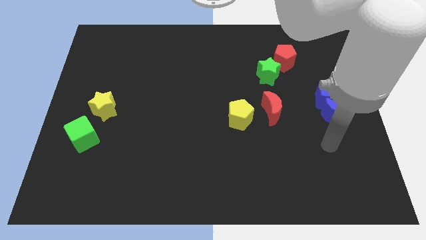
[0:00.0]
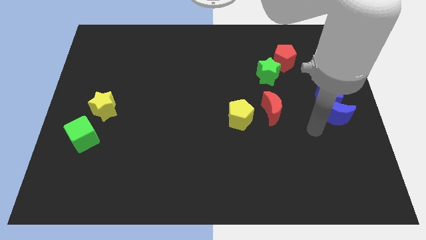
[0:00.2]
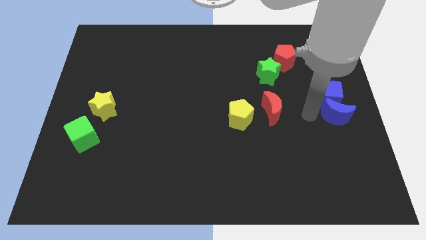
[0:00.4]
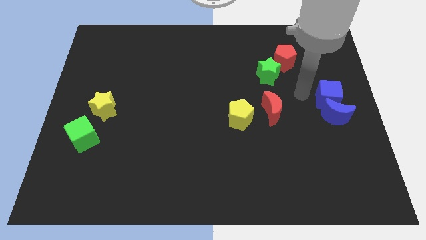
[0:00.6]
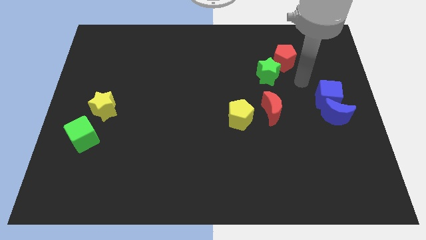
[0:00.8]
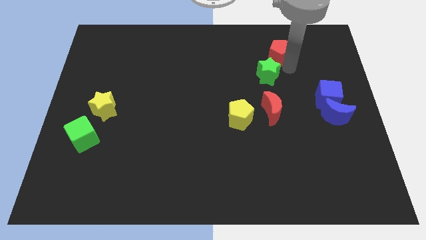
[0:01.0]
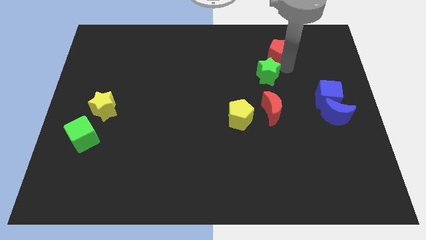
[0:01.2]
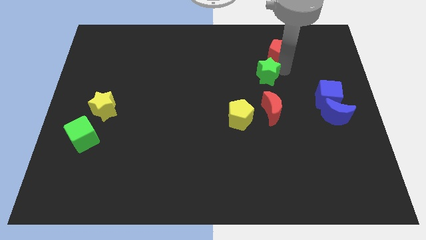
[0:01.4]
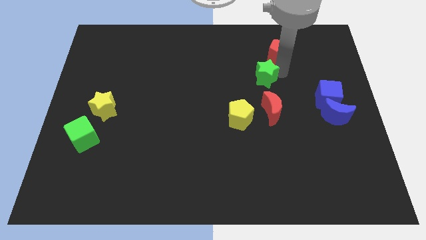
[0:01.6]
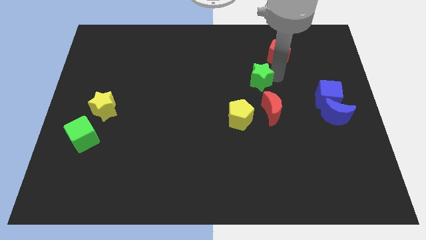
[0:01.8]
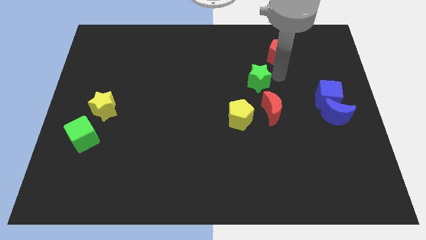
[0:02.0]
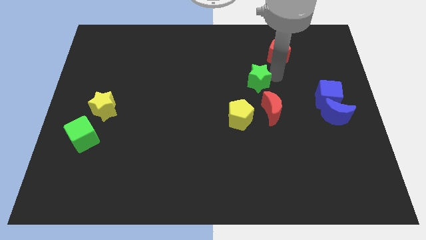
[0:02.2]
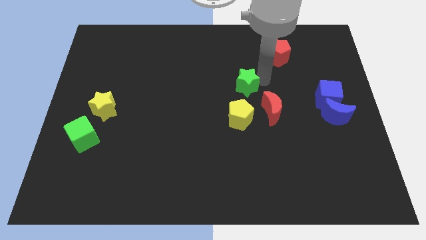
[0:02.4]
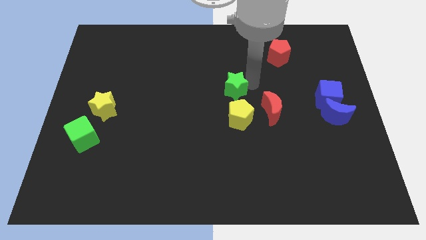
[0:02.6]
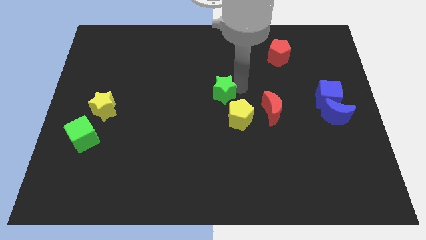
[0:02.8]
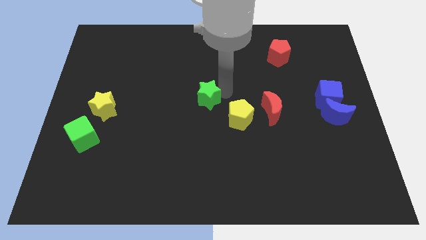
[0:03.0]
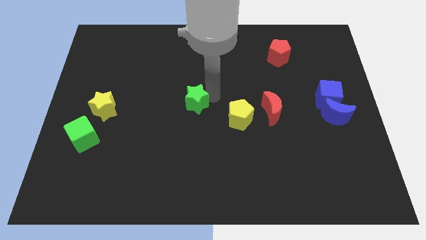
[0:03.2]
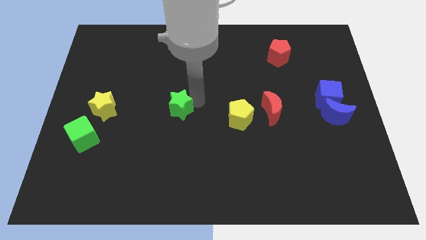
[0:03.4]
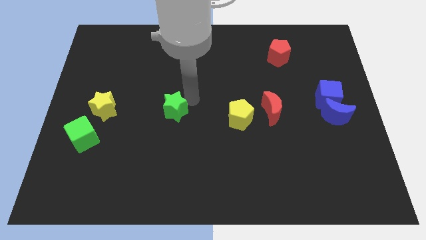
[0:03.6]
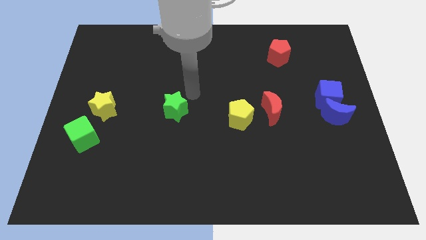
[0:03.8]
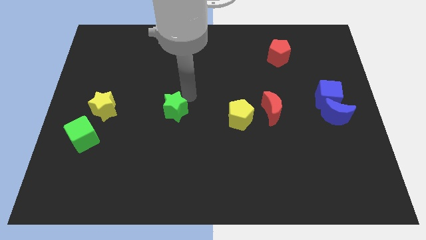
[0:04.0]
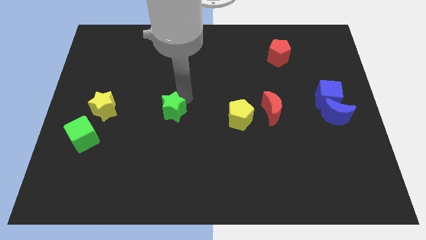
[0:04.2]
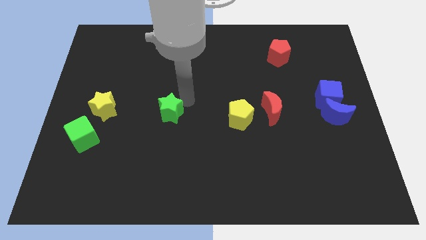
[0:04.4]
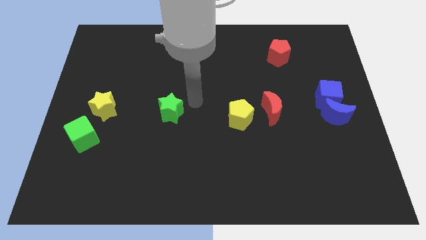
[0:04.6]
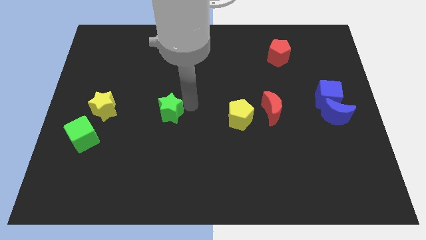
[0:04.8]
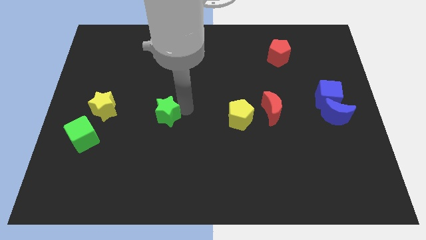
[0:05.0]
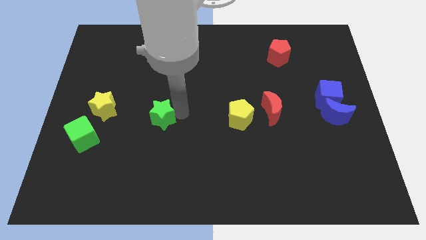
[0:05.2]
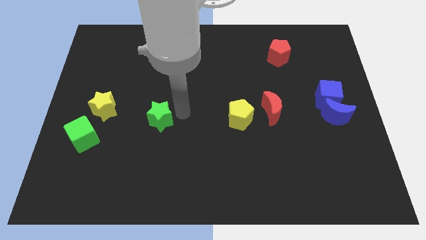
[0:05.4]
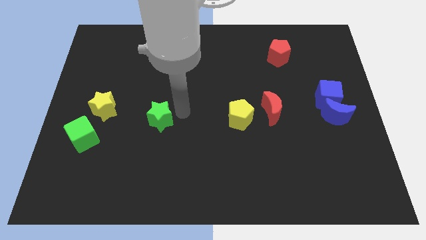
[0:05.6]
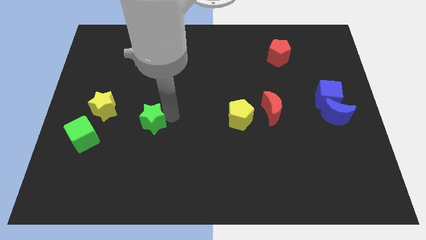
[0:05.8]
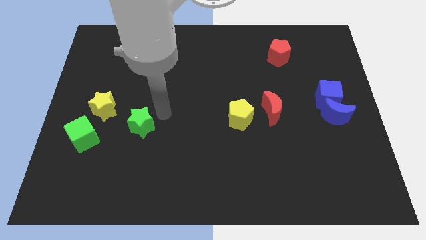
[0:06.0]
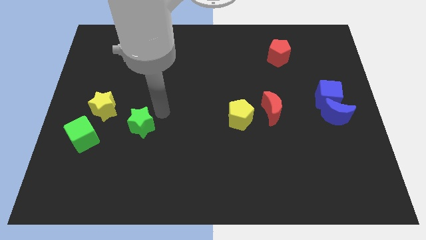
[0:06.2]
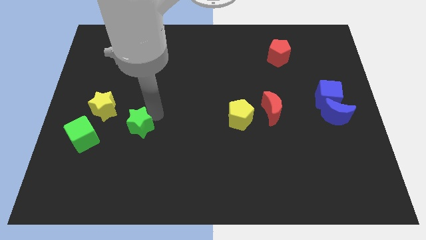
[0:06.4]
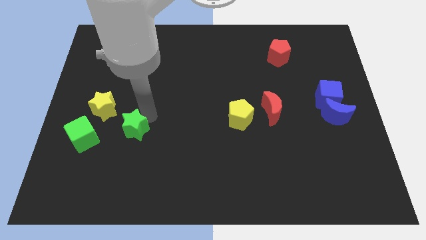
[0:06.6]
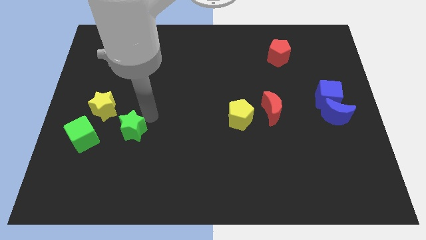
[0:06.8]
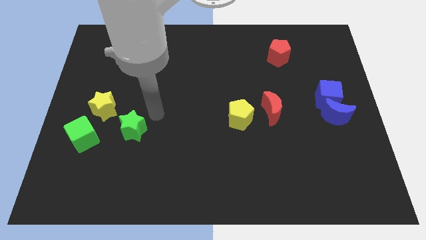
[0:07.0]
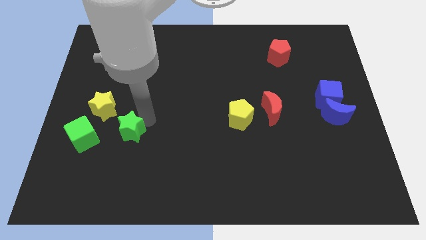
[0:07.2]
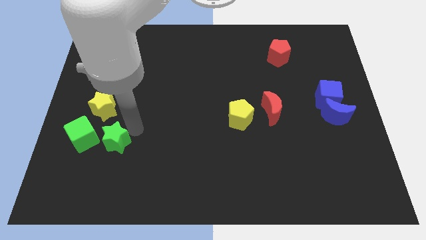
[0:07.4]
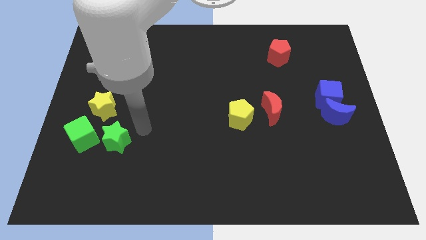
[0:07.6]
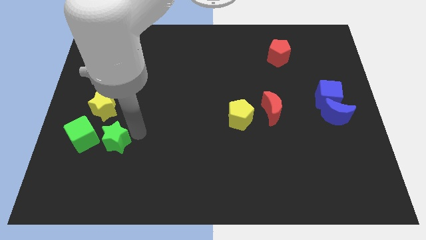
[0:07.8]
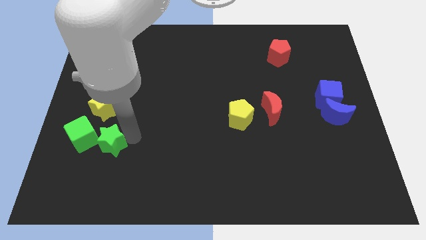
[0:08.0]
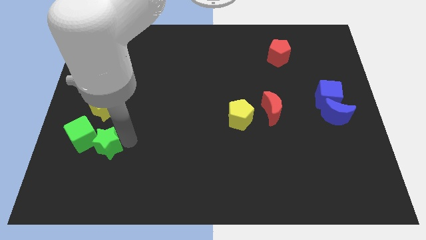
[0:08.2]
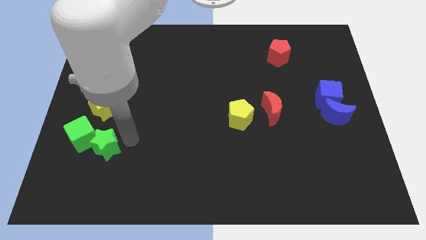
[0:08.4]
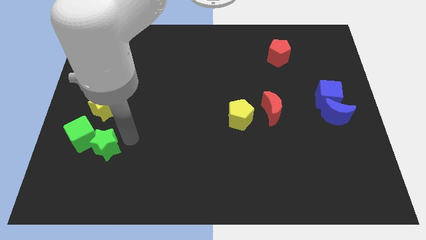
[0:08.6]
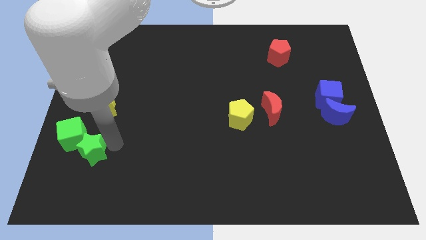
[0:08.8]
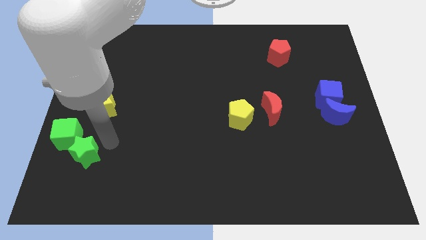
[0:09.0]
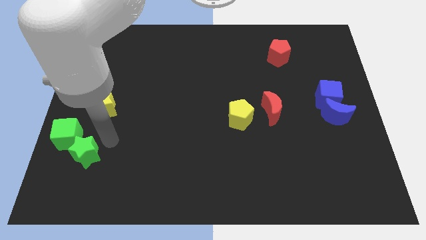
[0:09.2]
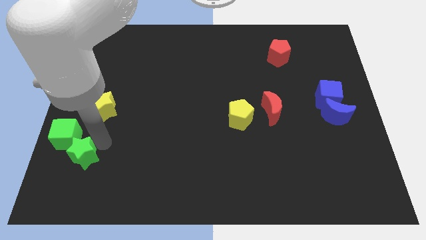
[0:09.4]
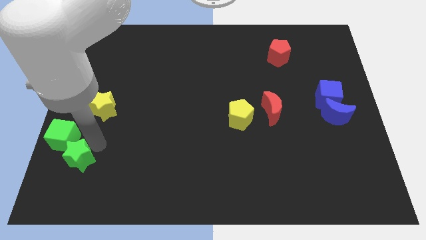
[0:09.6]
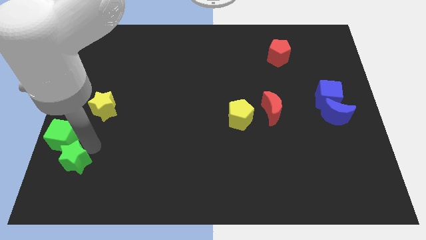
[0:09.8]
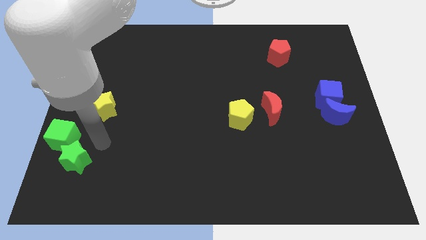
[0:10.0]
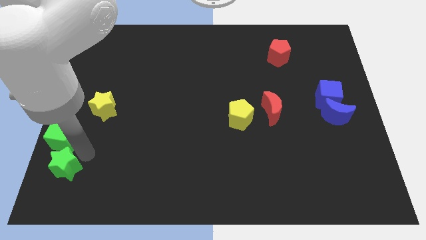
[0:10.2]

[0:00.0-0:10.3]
push the green star to the bottom left
